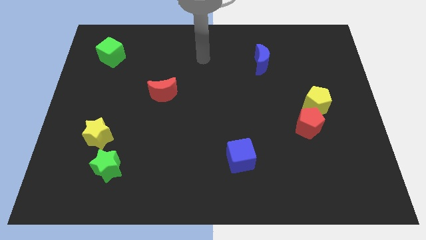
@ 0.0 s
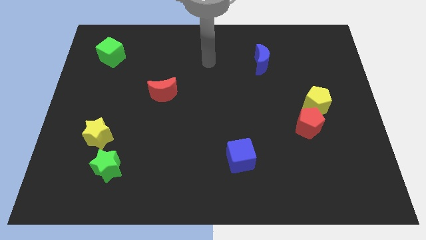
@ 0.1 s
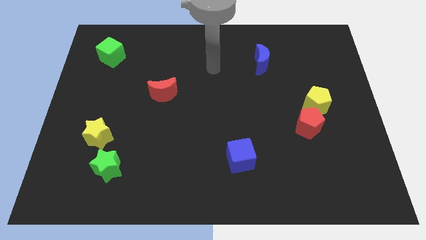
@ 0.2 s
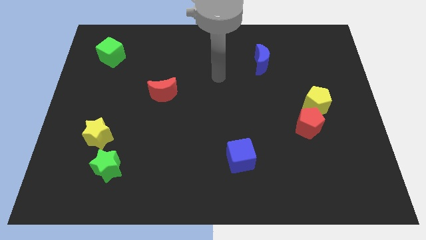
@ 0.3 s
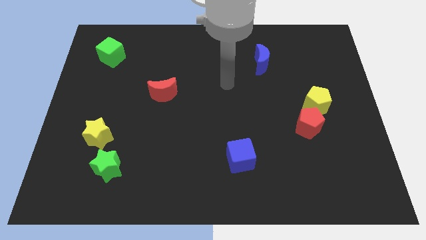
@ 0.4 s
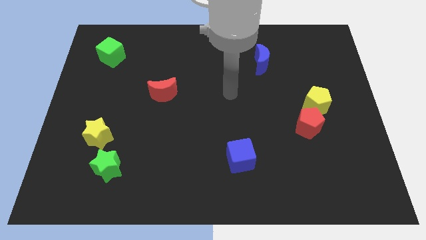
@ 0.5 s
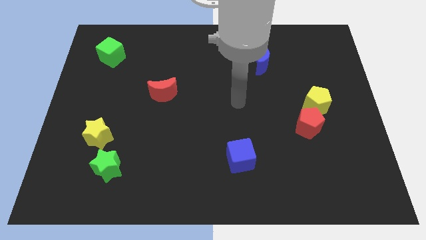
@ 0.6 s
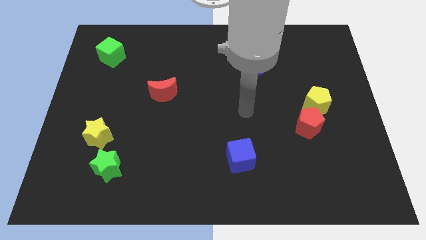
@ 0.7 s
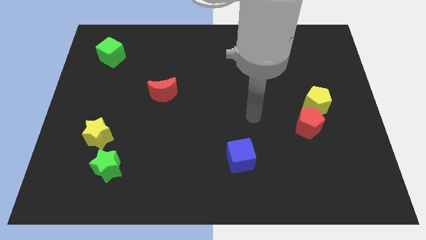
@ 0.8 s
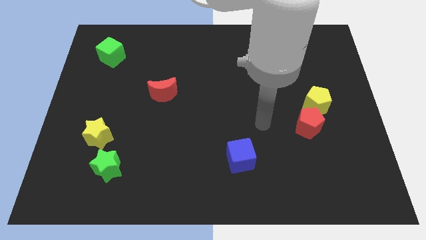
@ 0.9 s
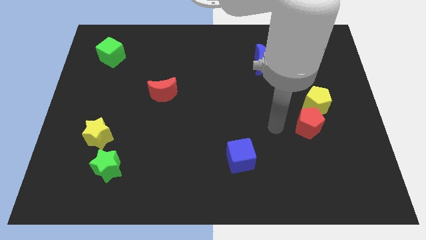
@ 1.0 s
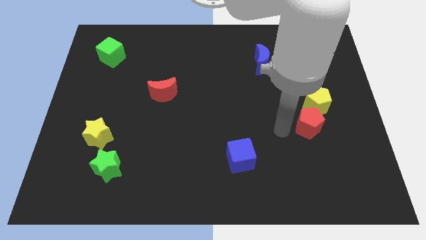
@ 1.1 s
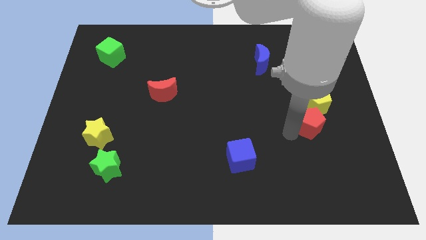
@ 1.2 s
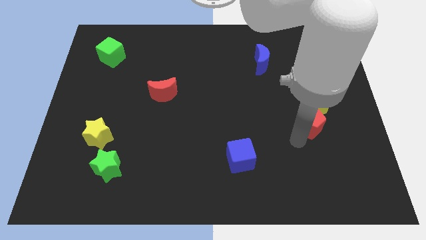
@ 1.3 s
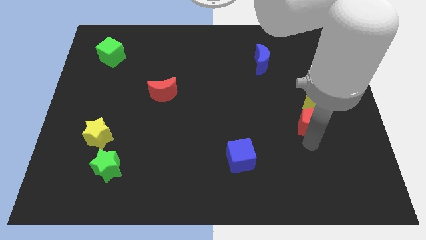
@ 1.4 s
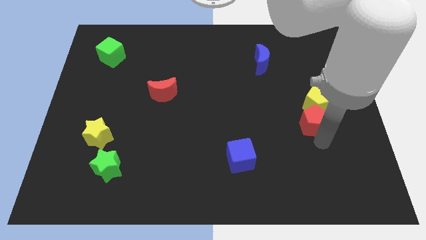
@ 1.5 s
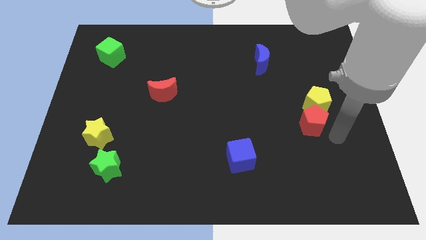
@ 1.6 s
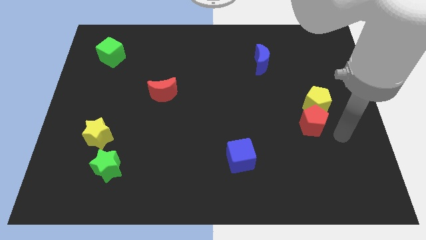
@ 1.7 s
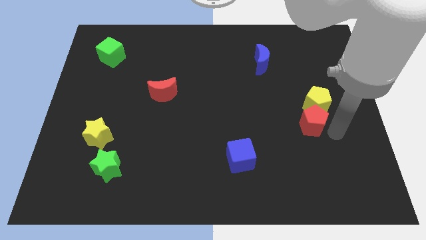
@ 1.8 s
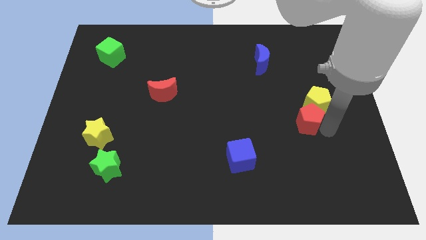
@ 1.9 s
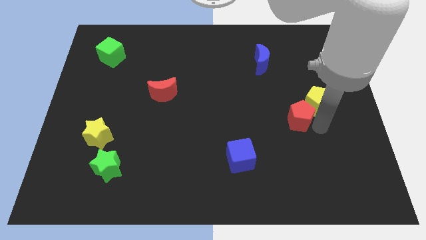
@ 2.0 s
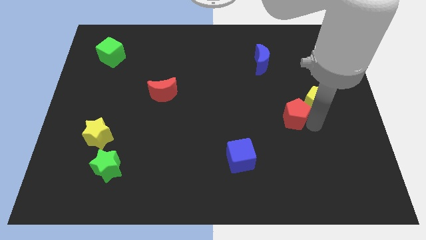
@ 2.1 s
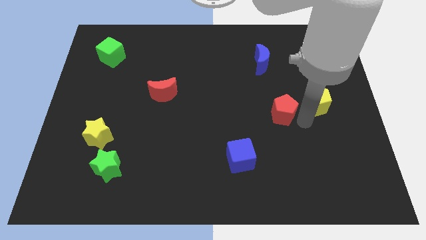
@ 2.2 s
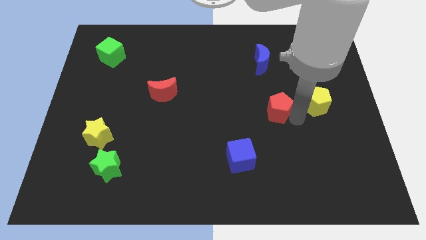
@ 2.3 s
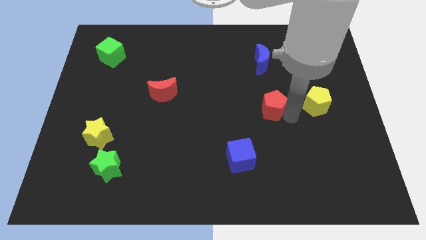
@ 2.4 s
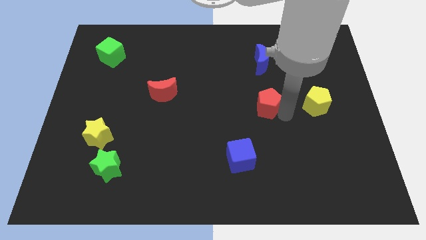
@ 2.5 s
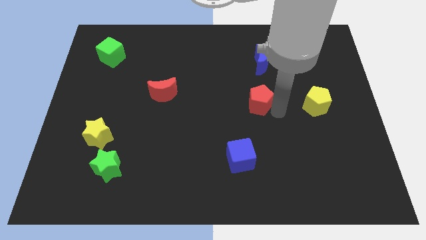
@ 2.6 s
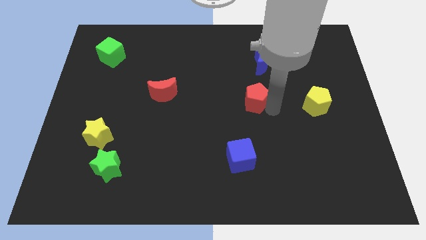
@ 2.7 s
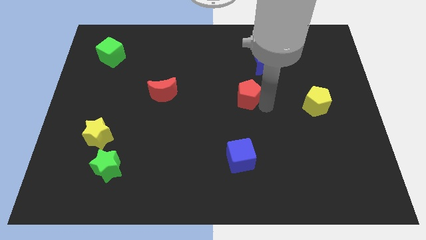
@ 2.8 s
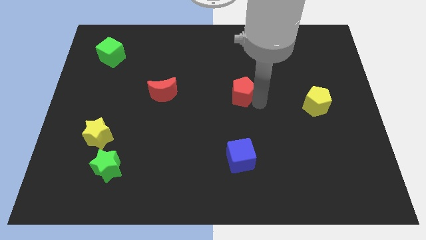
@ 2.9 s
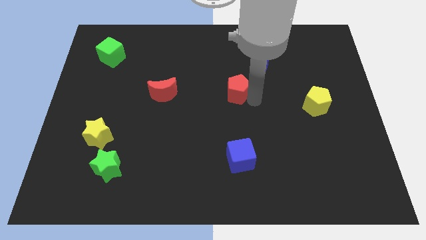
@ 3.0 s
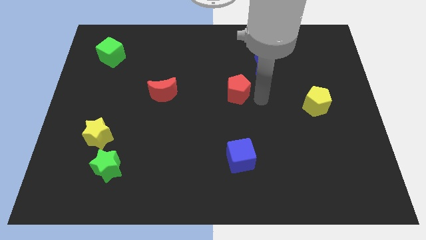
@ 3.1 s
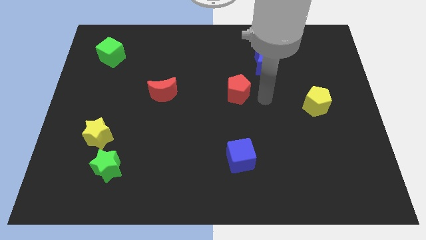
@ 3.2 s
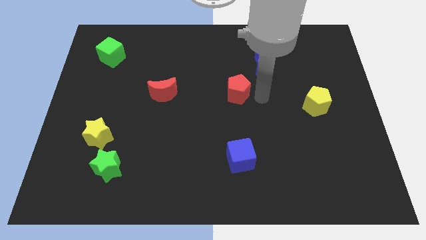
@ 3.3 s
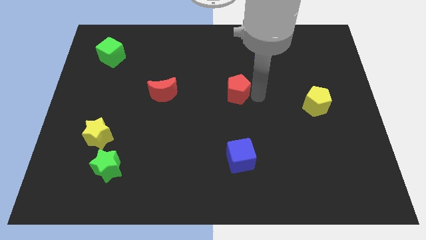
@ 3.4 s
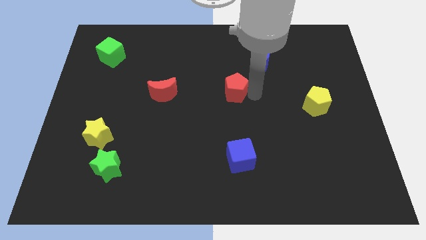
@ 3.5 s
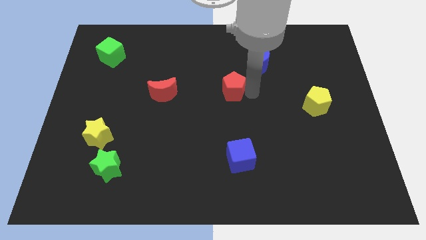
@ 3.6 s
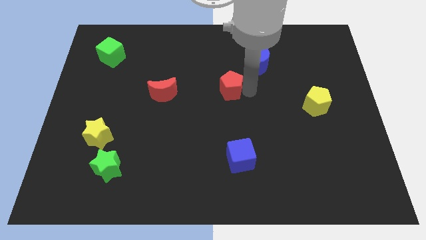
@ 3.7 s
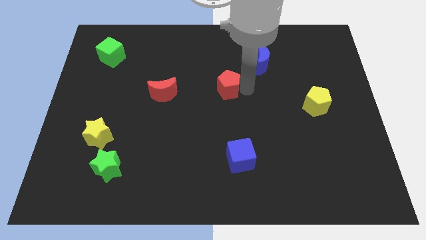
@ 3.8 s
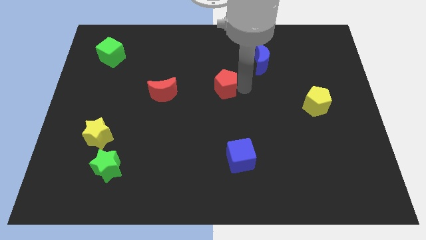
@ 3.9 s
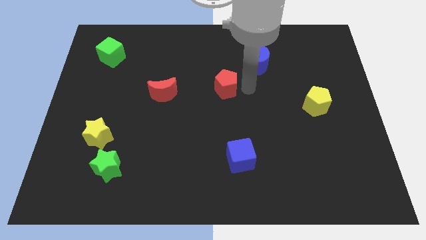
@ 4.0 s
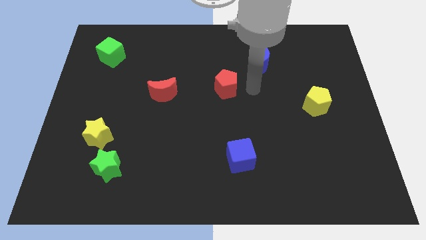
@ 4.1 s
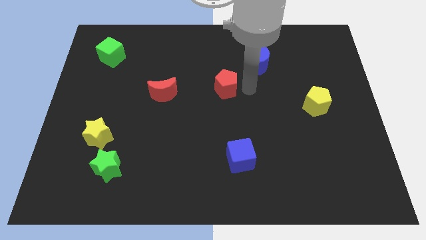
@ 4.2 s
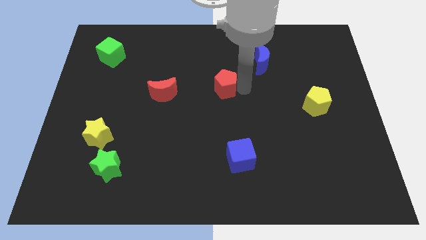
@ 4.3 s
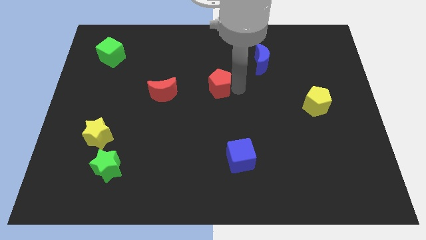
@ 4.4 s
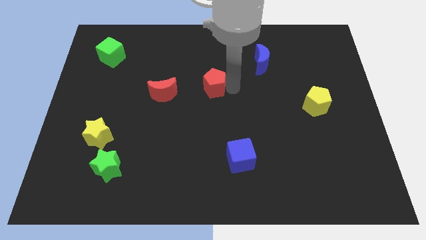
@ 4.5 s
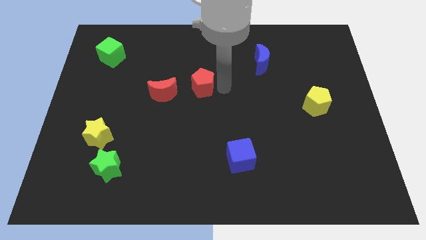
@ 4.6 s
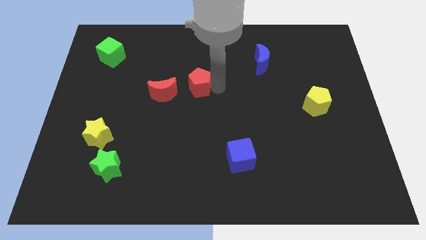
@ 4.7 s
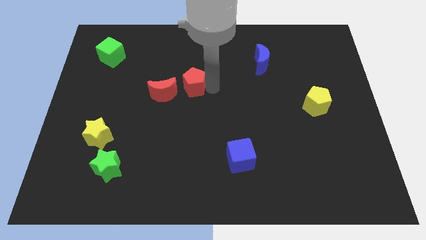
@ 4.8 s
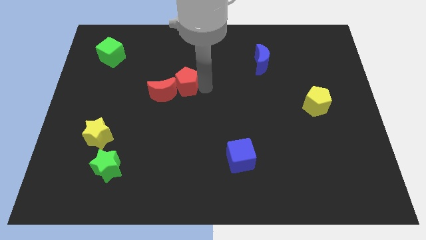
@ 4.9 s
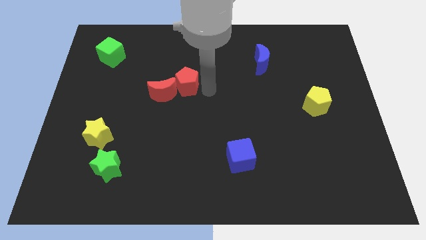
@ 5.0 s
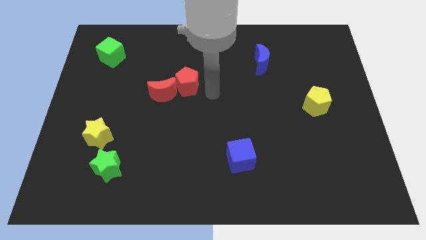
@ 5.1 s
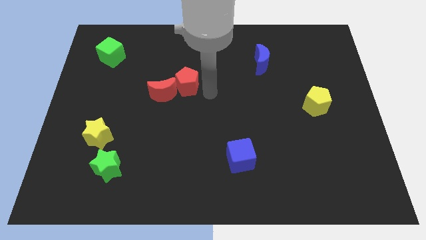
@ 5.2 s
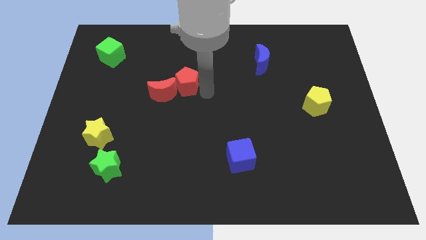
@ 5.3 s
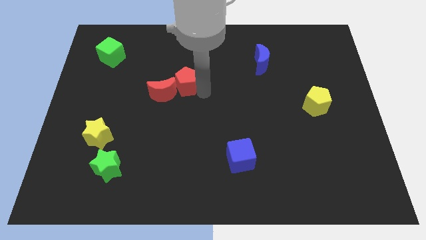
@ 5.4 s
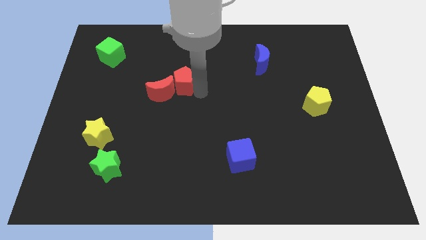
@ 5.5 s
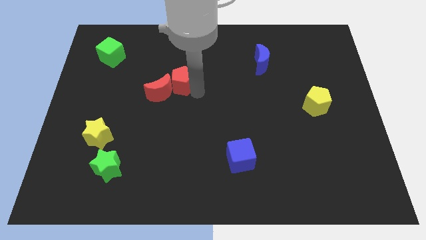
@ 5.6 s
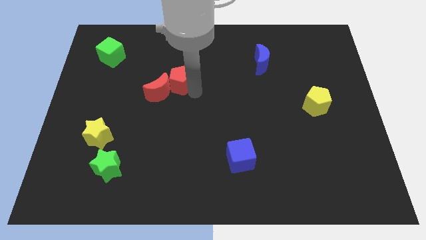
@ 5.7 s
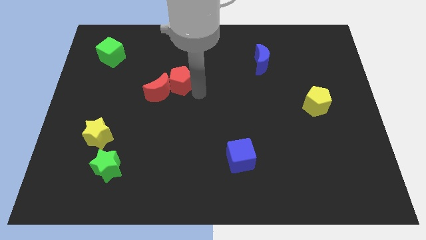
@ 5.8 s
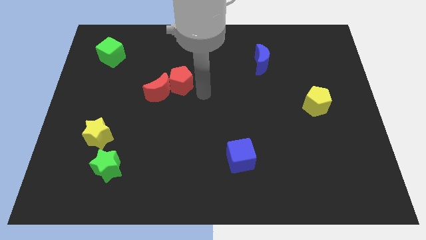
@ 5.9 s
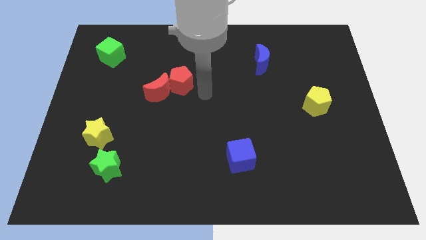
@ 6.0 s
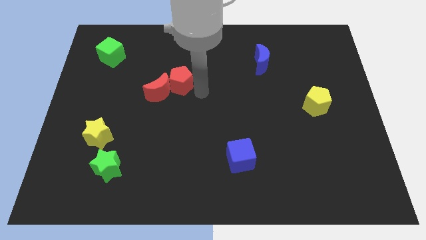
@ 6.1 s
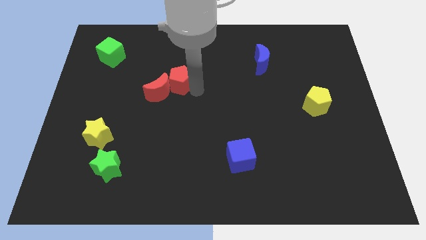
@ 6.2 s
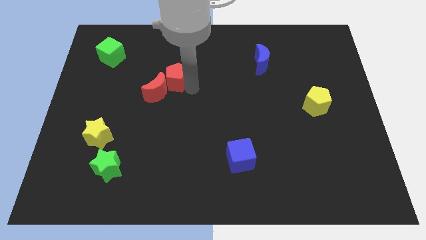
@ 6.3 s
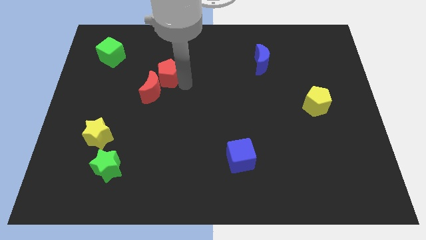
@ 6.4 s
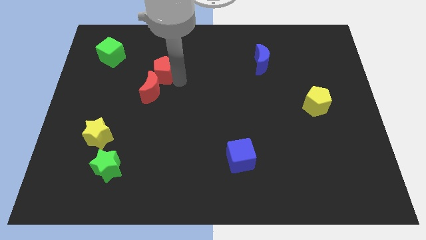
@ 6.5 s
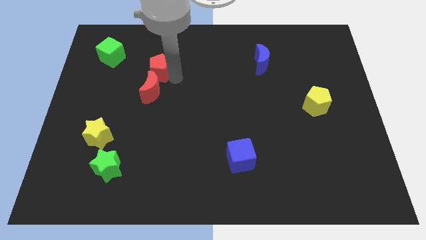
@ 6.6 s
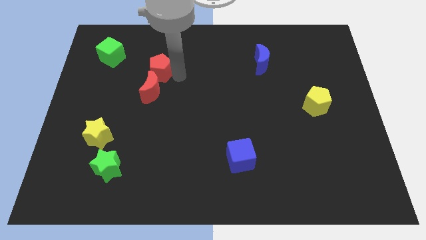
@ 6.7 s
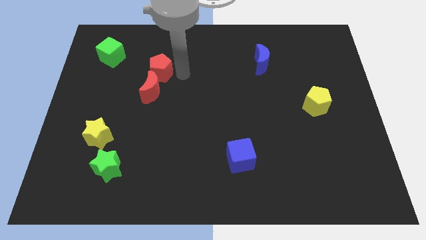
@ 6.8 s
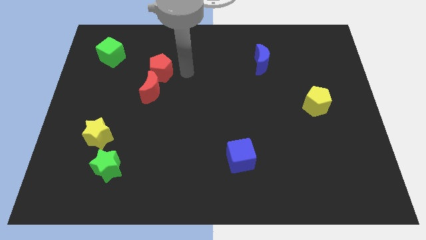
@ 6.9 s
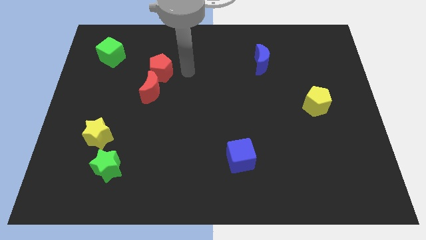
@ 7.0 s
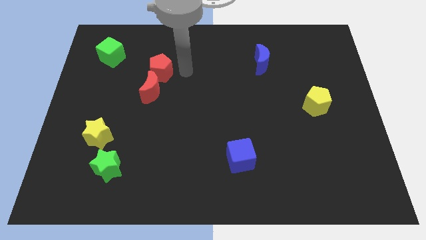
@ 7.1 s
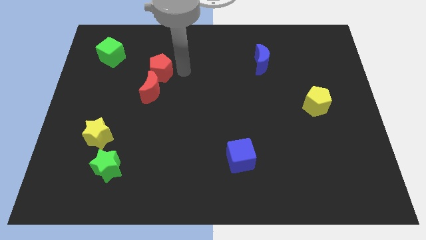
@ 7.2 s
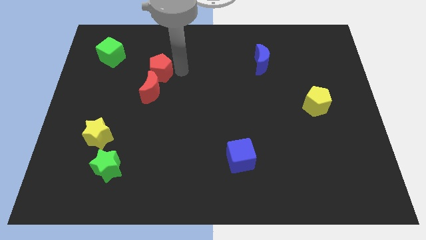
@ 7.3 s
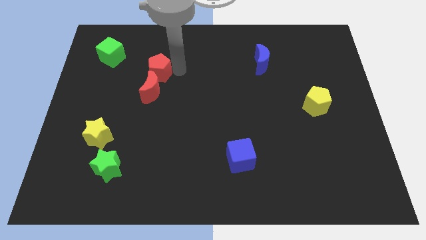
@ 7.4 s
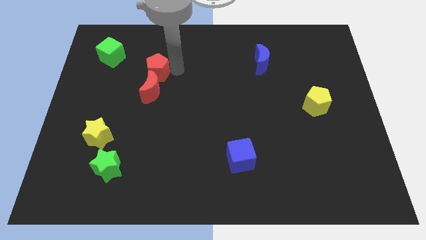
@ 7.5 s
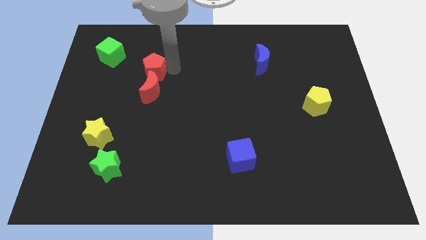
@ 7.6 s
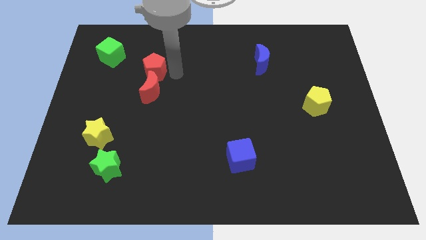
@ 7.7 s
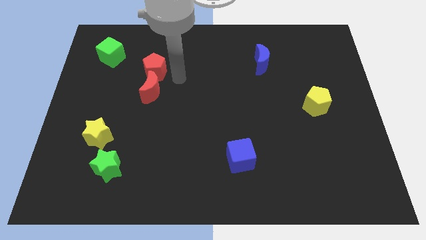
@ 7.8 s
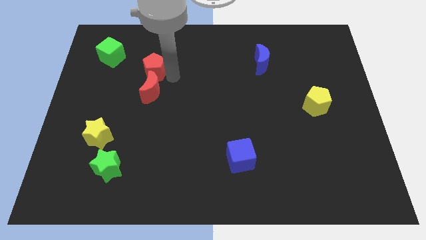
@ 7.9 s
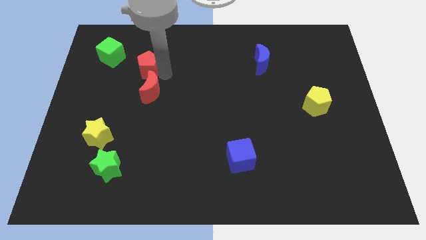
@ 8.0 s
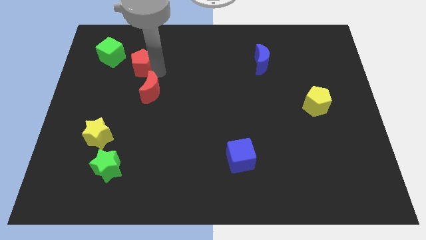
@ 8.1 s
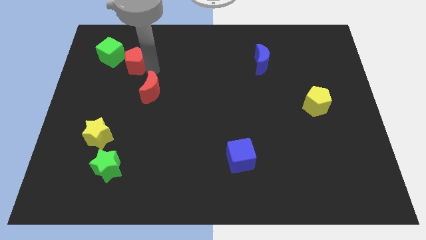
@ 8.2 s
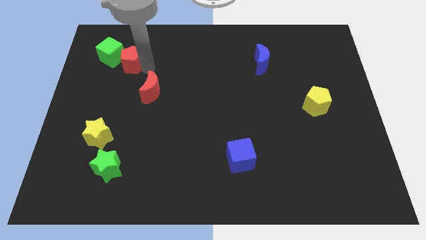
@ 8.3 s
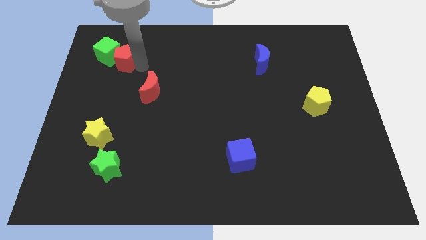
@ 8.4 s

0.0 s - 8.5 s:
push the red pentagon towards the green cube
